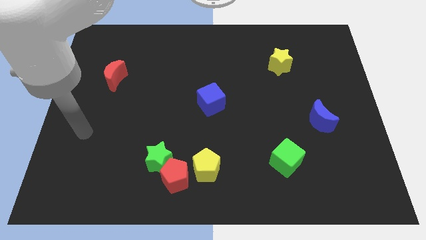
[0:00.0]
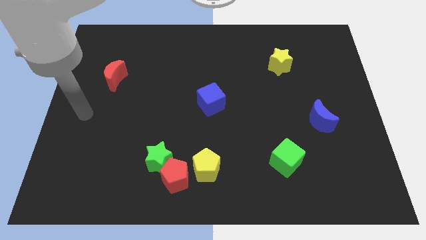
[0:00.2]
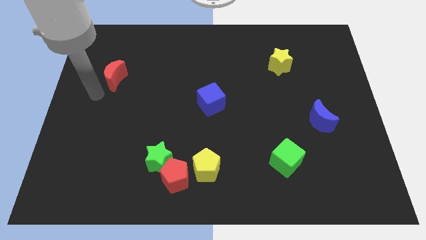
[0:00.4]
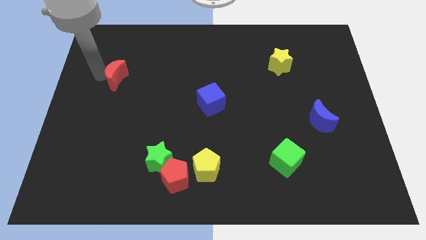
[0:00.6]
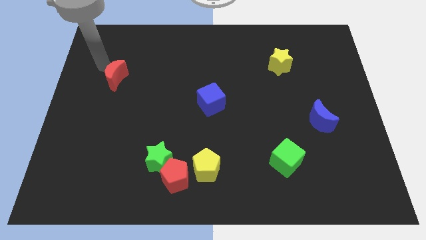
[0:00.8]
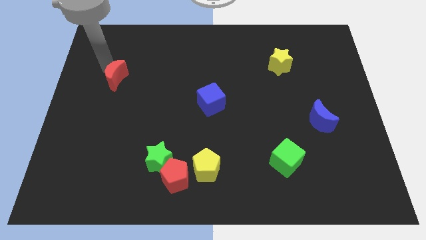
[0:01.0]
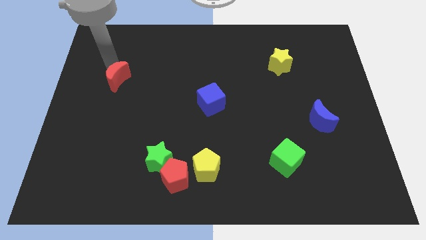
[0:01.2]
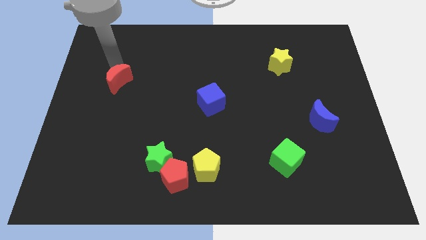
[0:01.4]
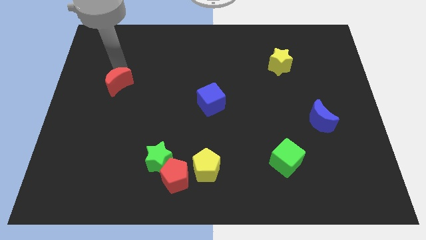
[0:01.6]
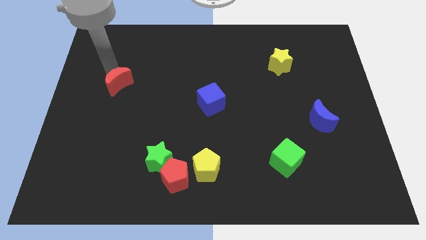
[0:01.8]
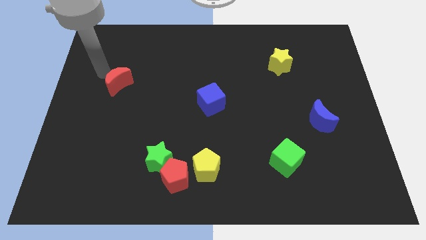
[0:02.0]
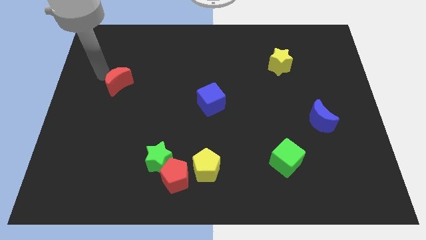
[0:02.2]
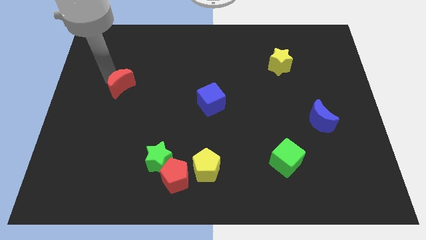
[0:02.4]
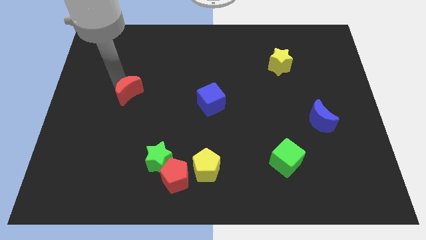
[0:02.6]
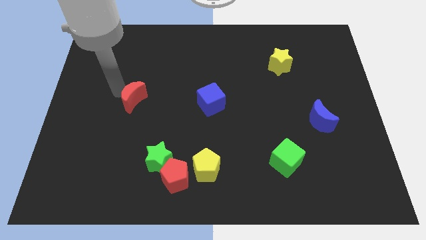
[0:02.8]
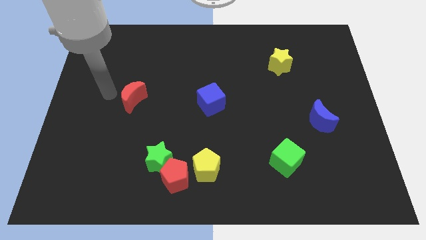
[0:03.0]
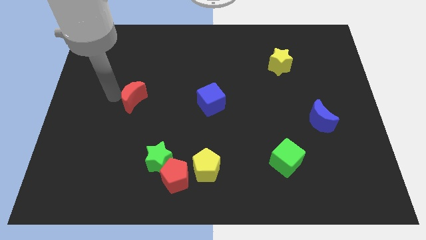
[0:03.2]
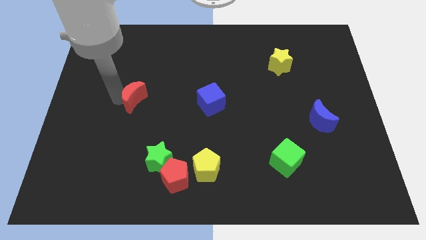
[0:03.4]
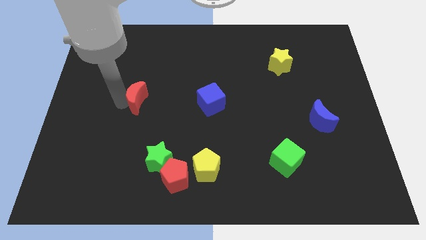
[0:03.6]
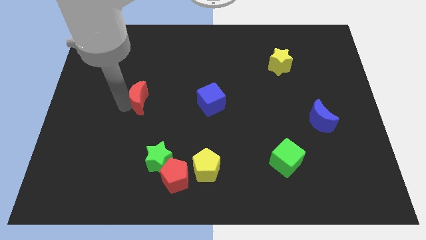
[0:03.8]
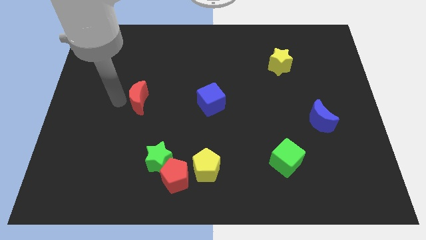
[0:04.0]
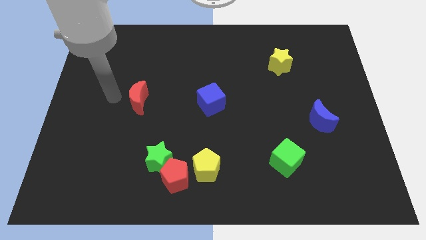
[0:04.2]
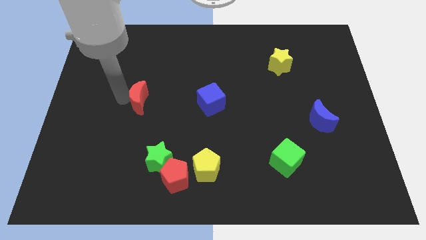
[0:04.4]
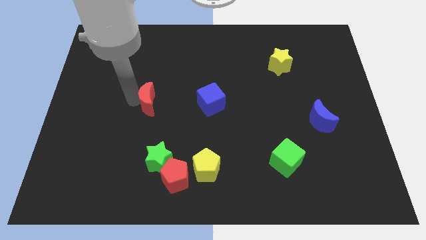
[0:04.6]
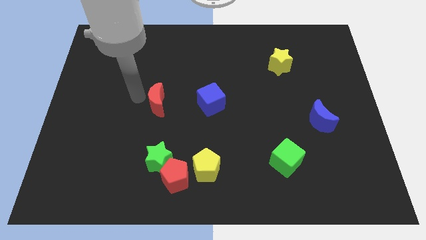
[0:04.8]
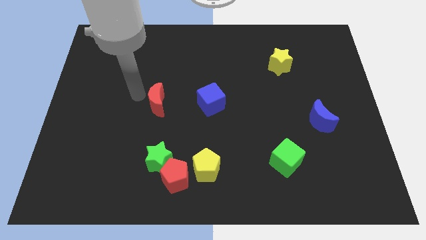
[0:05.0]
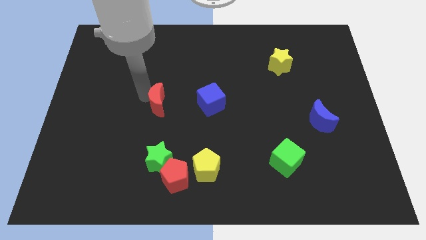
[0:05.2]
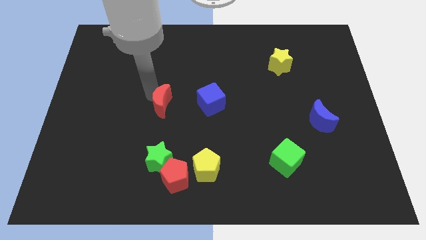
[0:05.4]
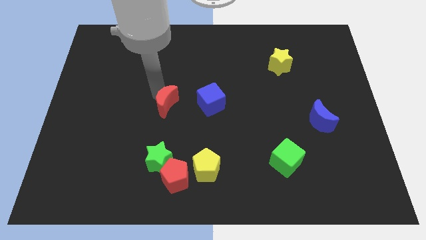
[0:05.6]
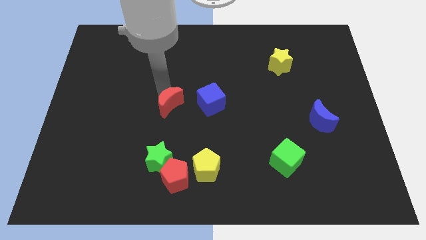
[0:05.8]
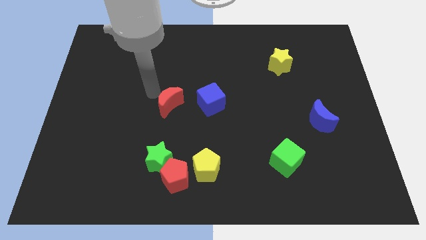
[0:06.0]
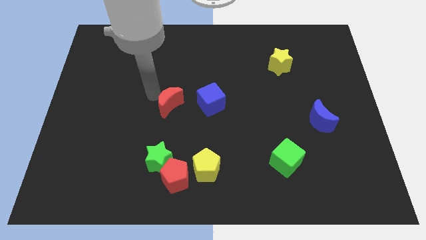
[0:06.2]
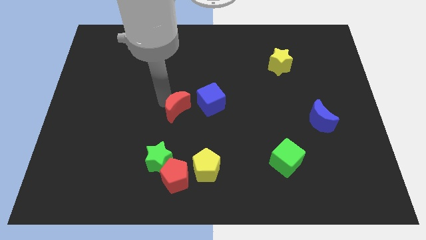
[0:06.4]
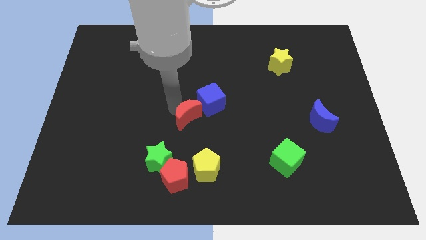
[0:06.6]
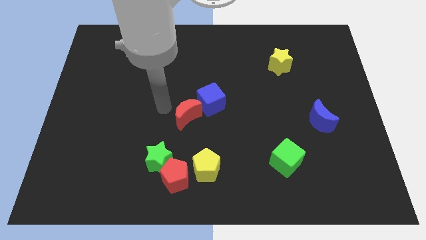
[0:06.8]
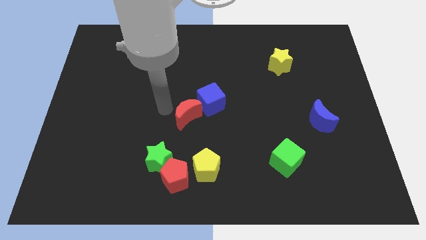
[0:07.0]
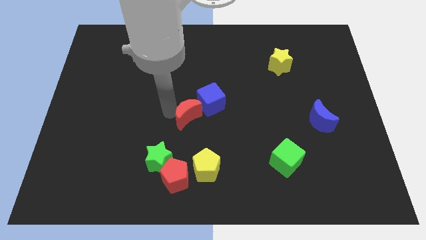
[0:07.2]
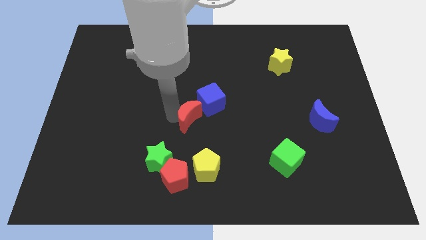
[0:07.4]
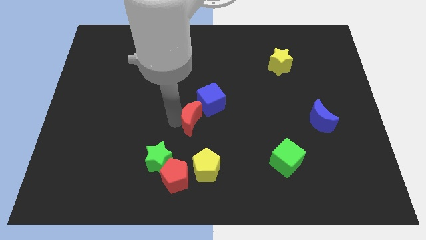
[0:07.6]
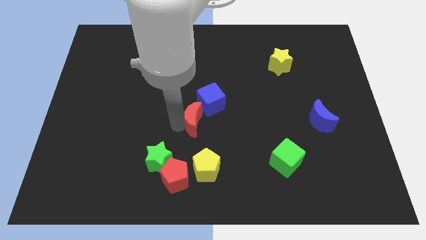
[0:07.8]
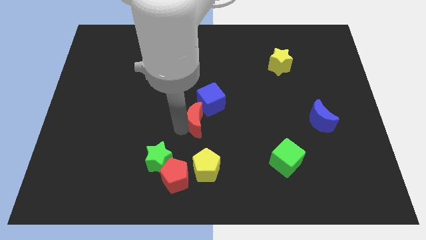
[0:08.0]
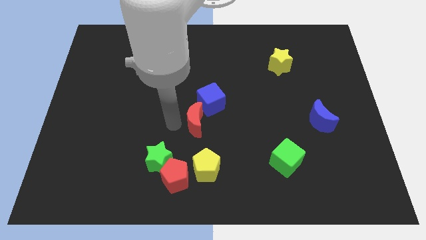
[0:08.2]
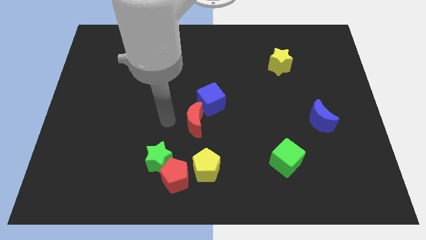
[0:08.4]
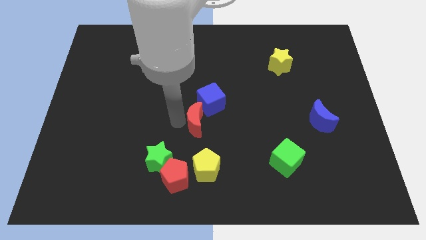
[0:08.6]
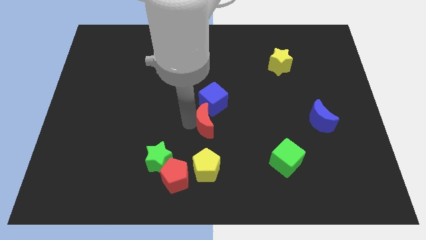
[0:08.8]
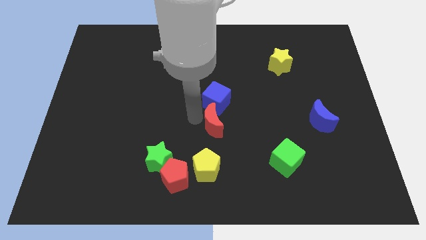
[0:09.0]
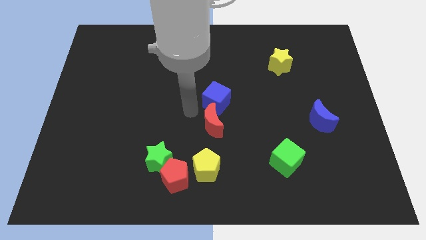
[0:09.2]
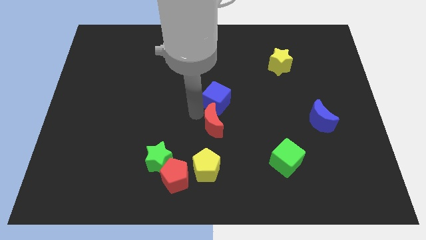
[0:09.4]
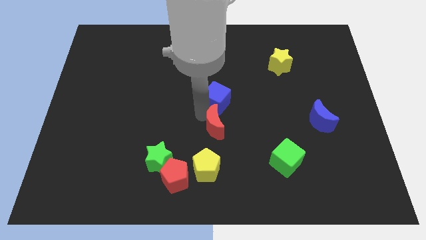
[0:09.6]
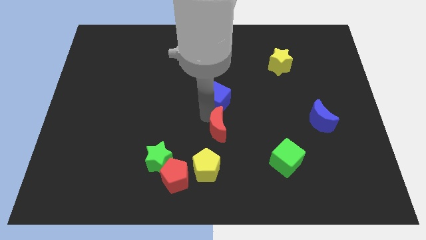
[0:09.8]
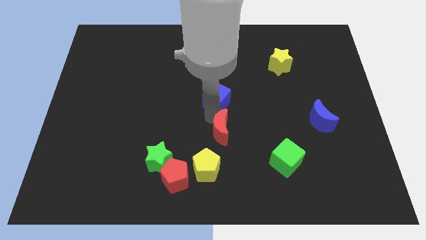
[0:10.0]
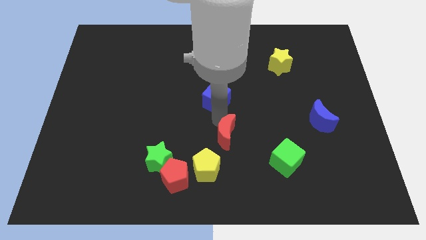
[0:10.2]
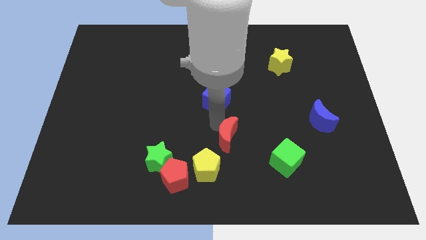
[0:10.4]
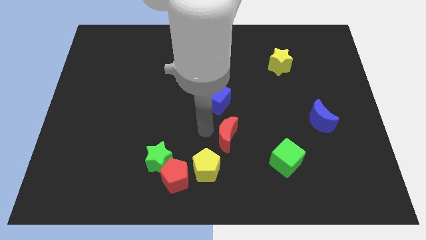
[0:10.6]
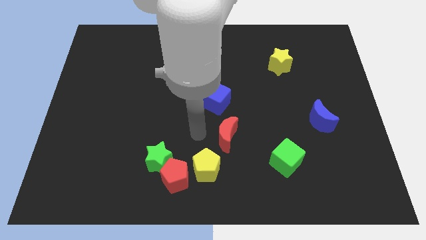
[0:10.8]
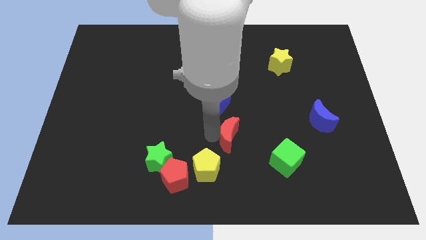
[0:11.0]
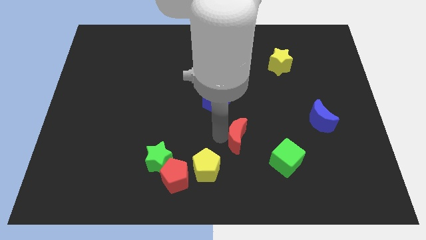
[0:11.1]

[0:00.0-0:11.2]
push the red moon to the top left of the green cube

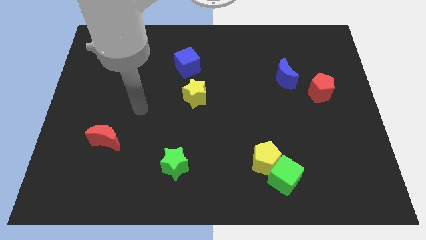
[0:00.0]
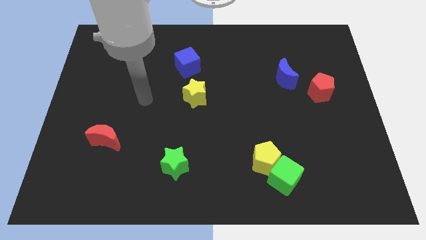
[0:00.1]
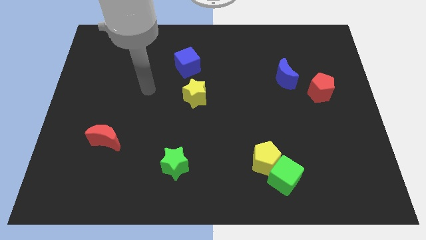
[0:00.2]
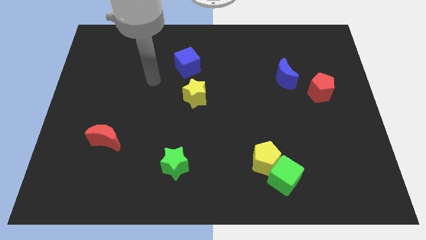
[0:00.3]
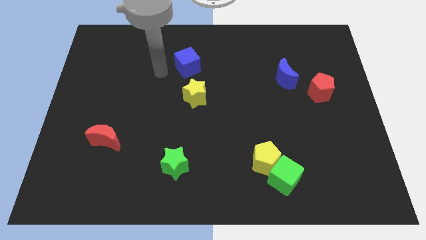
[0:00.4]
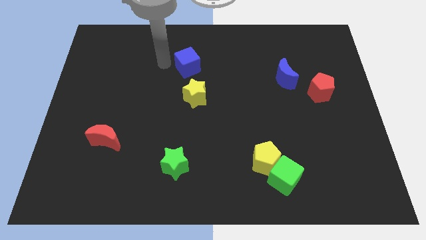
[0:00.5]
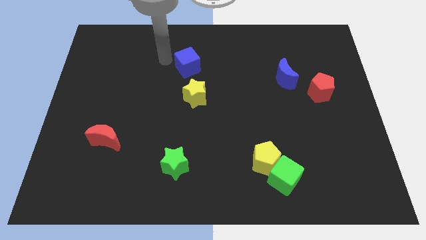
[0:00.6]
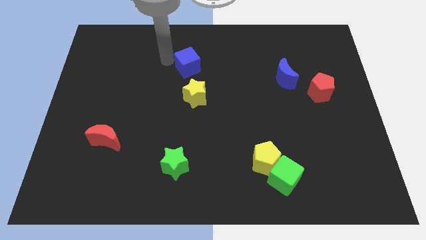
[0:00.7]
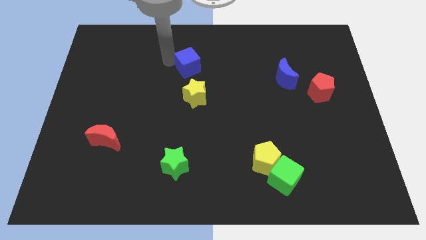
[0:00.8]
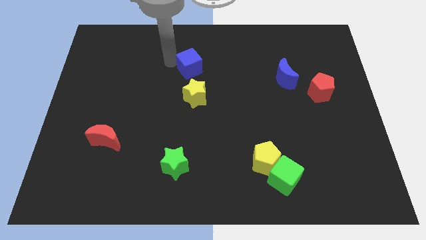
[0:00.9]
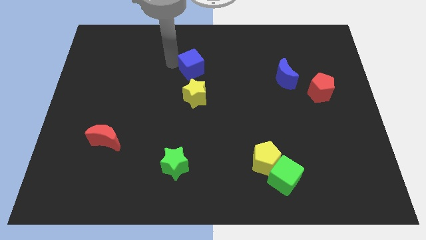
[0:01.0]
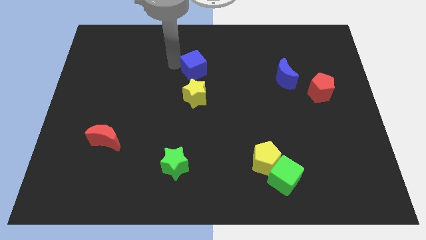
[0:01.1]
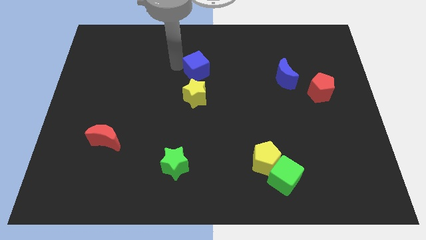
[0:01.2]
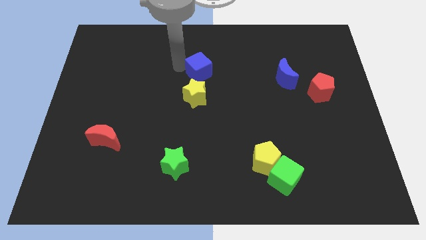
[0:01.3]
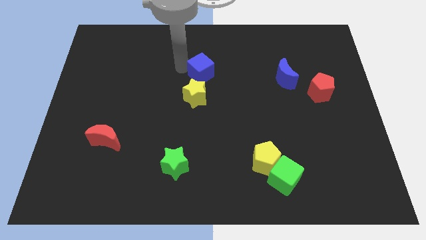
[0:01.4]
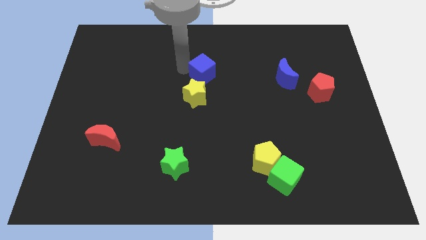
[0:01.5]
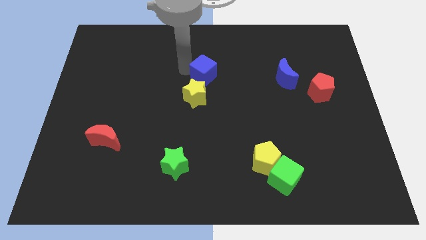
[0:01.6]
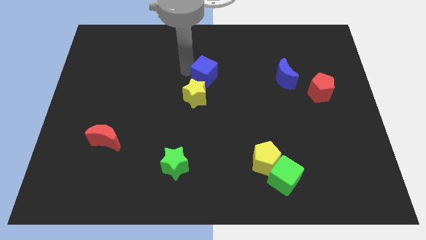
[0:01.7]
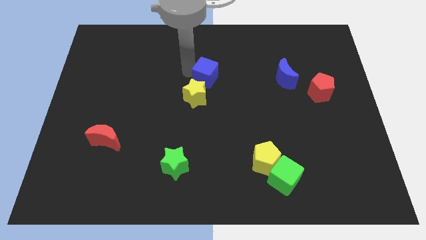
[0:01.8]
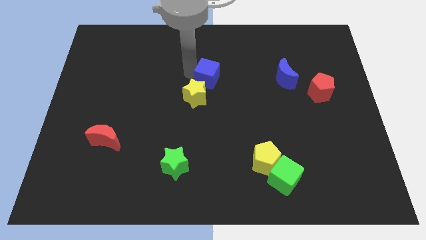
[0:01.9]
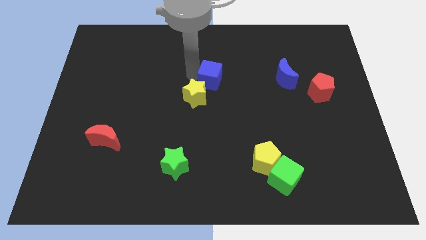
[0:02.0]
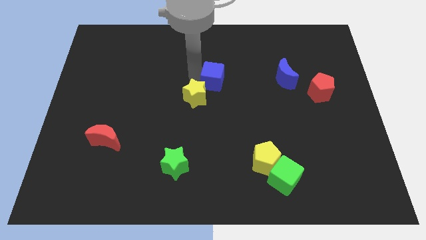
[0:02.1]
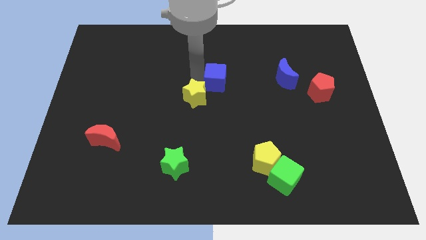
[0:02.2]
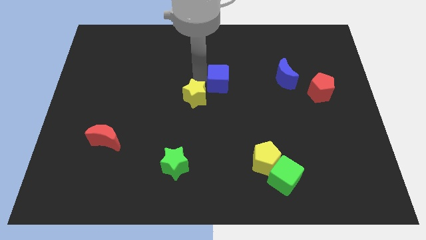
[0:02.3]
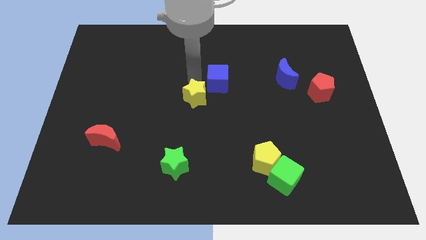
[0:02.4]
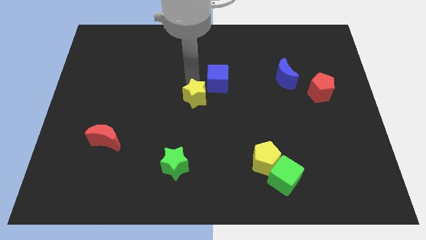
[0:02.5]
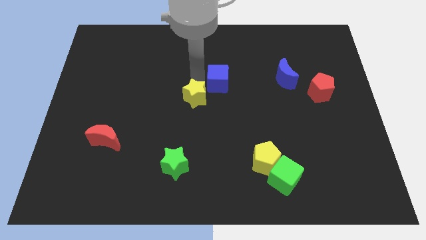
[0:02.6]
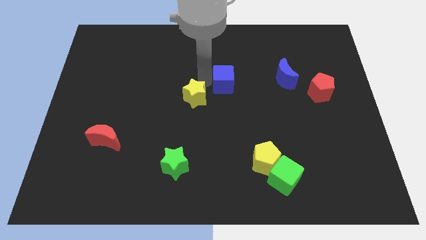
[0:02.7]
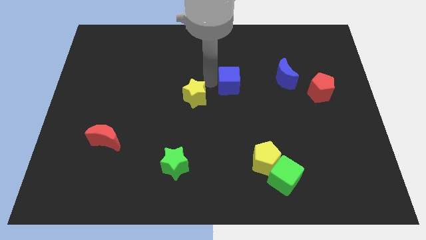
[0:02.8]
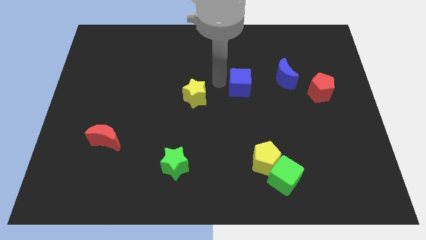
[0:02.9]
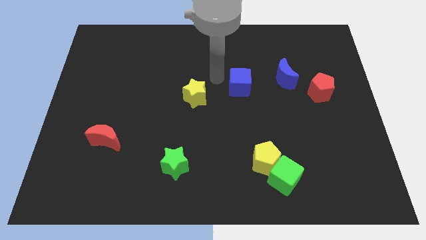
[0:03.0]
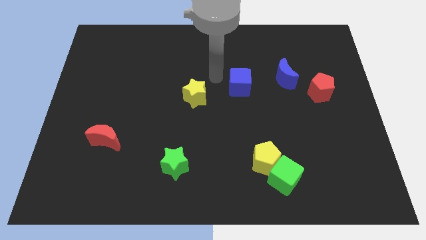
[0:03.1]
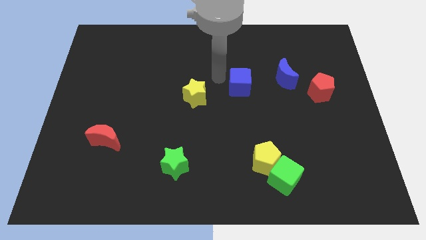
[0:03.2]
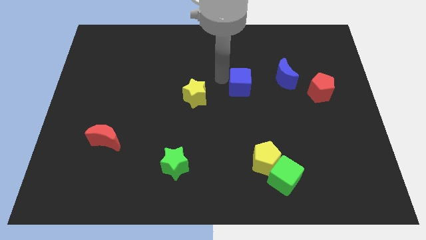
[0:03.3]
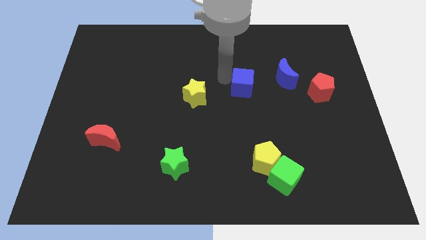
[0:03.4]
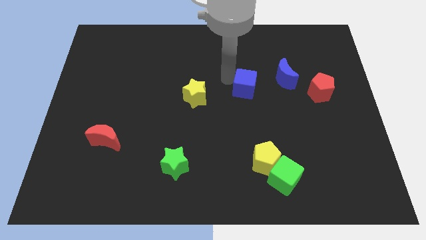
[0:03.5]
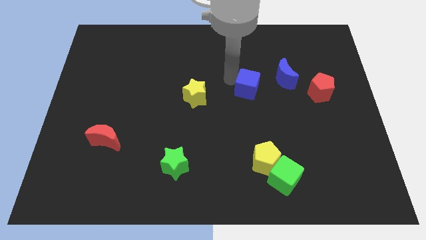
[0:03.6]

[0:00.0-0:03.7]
slide the blue cube diagonally down and to the left of the blue moon
